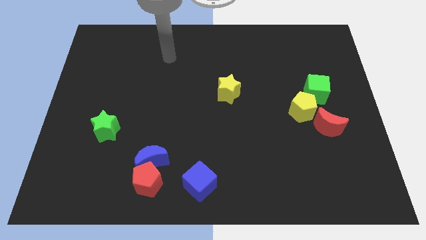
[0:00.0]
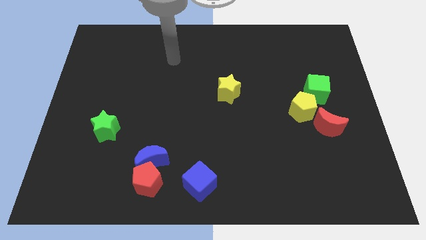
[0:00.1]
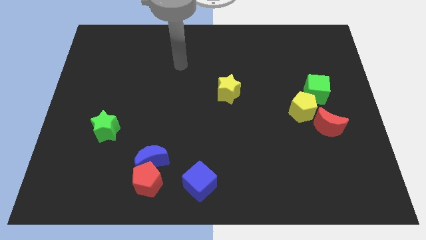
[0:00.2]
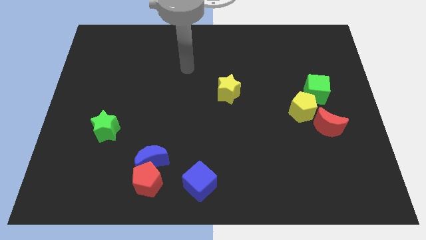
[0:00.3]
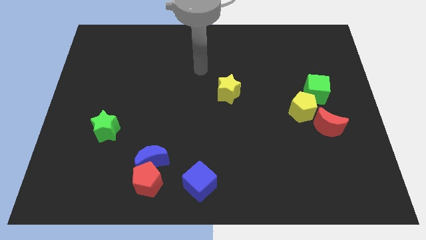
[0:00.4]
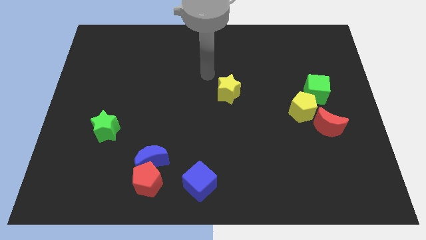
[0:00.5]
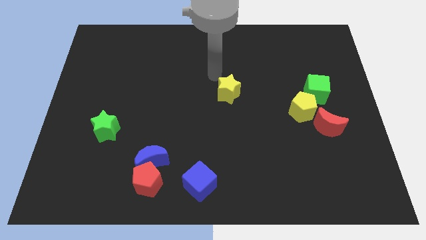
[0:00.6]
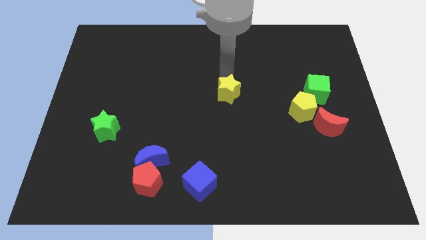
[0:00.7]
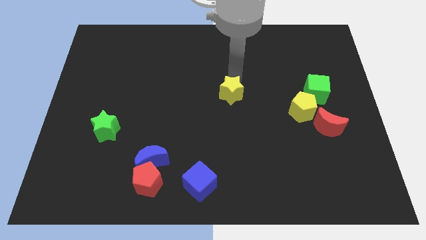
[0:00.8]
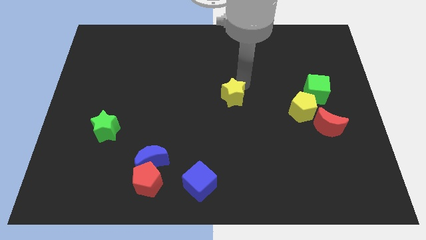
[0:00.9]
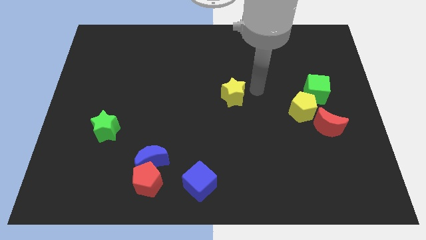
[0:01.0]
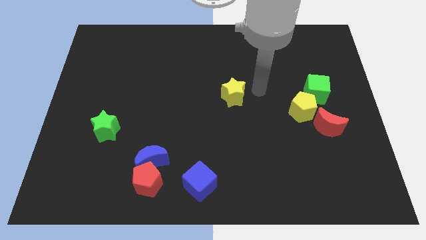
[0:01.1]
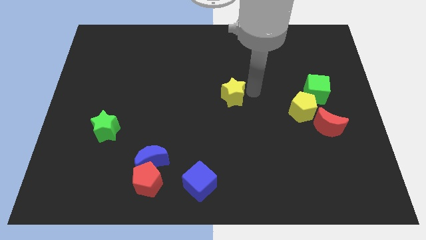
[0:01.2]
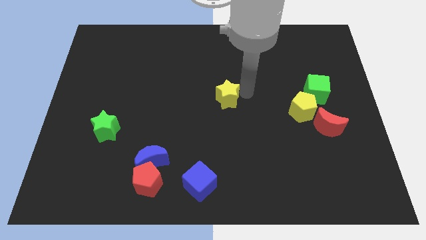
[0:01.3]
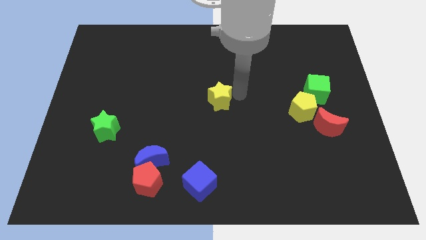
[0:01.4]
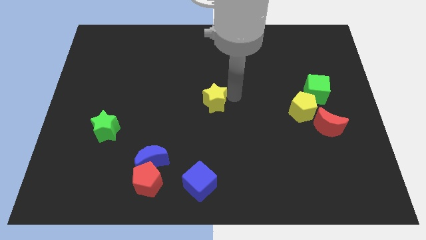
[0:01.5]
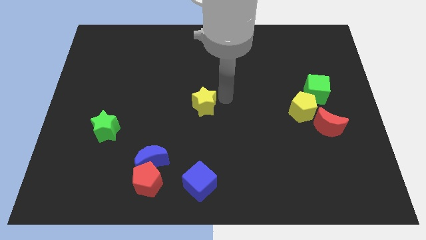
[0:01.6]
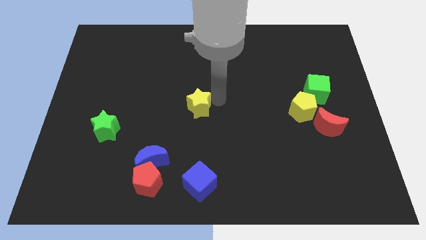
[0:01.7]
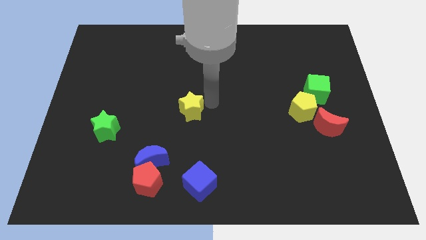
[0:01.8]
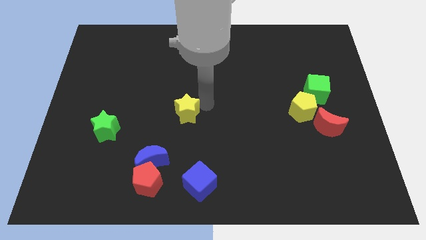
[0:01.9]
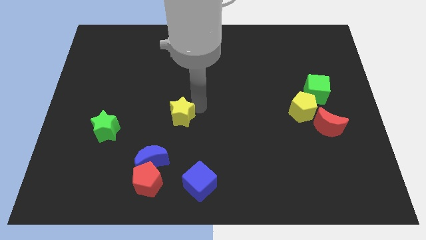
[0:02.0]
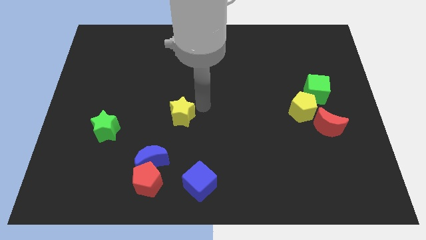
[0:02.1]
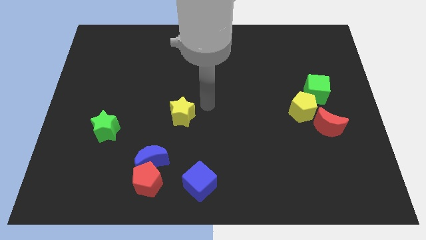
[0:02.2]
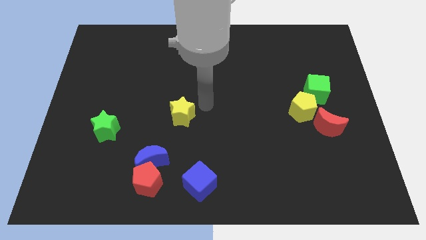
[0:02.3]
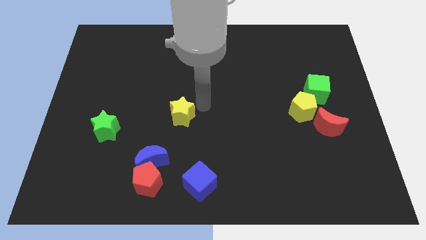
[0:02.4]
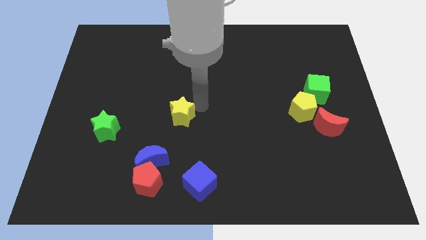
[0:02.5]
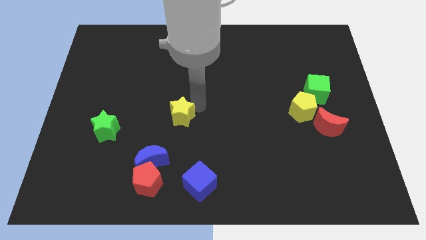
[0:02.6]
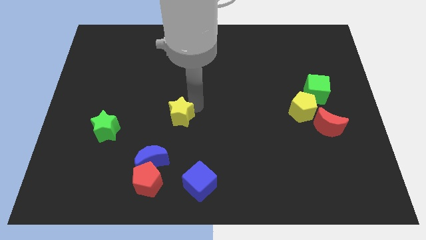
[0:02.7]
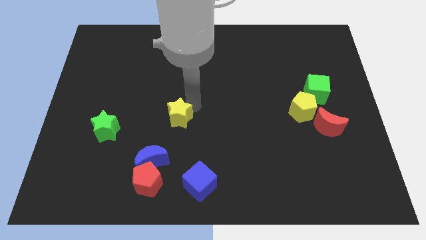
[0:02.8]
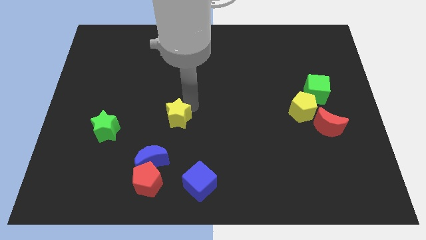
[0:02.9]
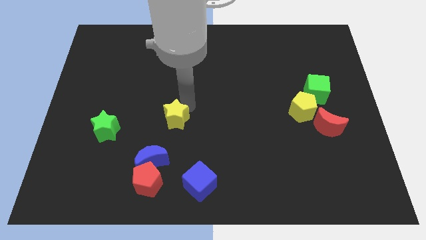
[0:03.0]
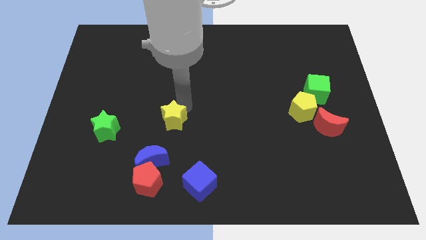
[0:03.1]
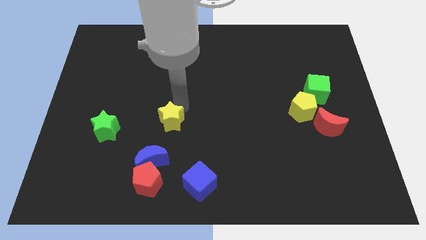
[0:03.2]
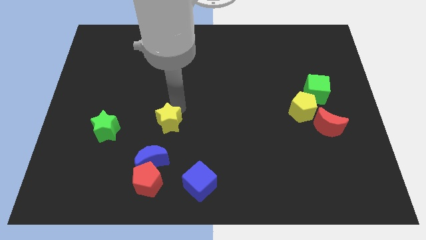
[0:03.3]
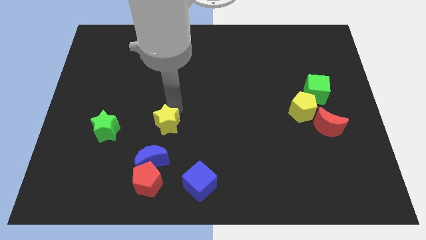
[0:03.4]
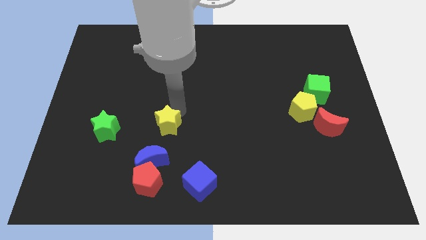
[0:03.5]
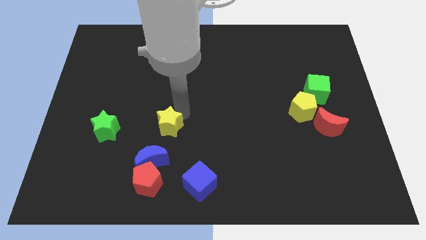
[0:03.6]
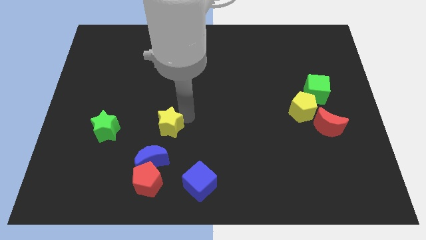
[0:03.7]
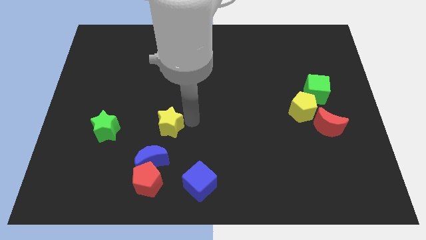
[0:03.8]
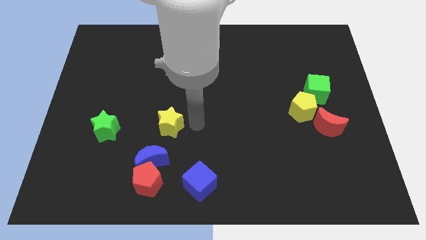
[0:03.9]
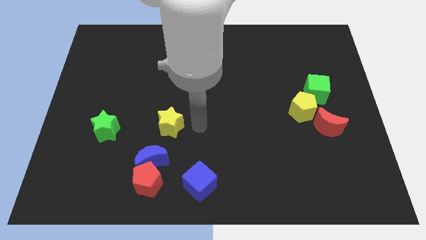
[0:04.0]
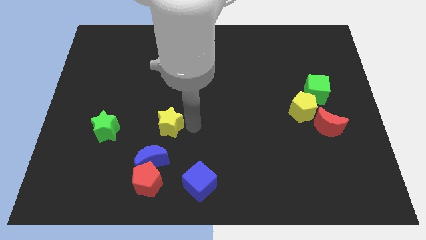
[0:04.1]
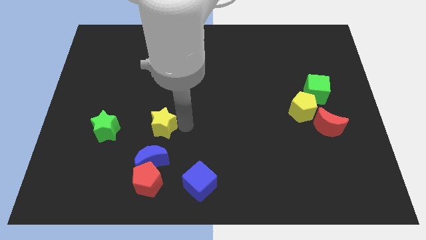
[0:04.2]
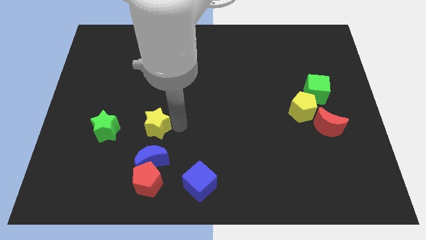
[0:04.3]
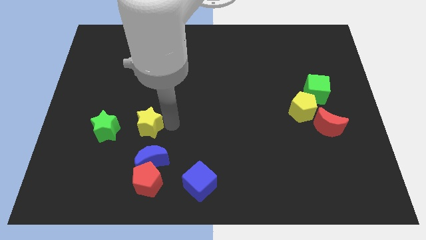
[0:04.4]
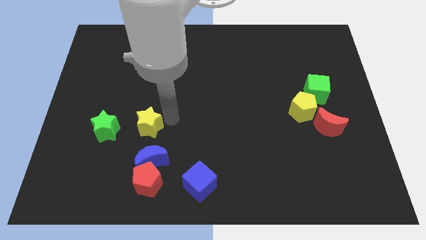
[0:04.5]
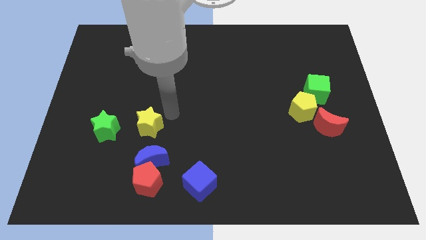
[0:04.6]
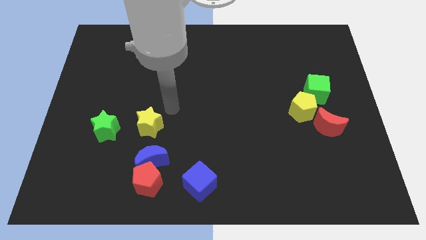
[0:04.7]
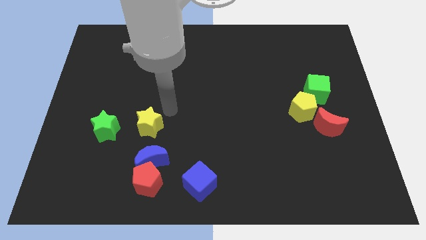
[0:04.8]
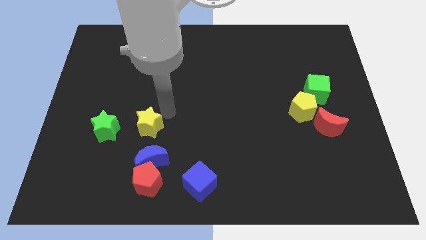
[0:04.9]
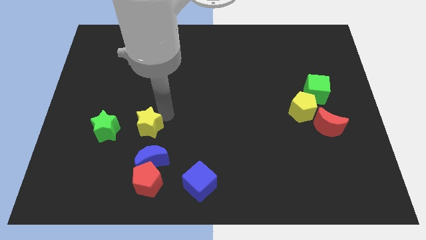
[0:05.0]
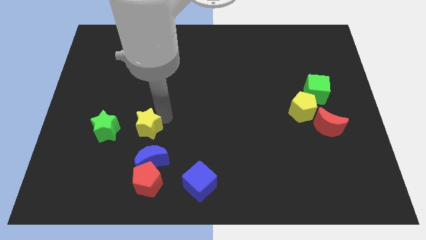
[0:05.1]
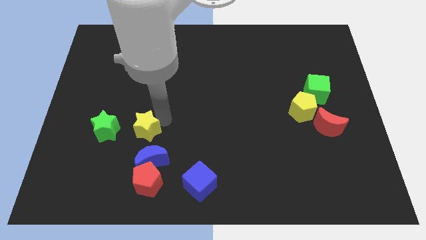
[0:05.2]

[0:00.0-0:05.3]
move the yellow star diagonally up and to the left of the blue moon

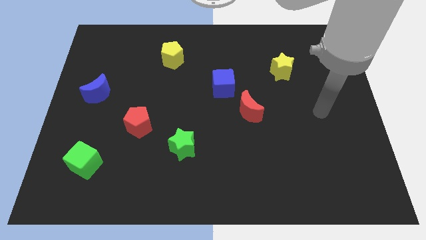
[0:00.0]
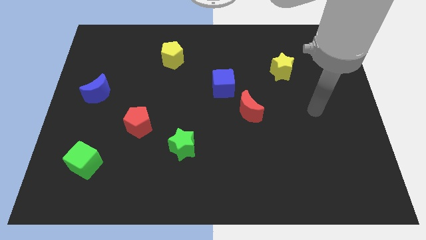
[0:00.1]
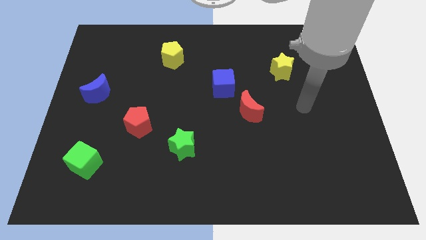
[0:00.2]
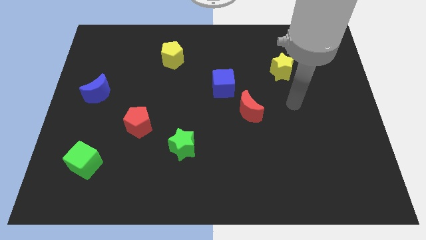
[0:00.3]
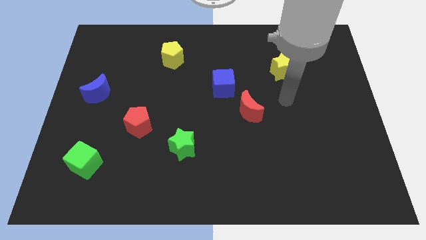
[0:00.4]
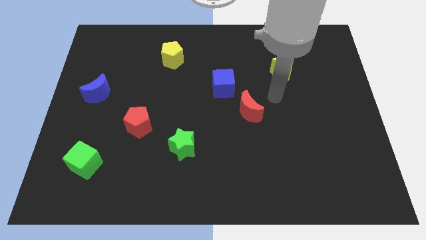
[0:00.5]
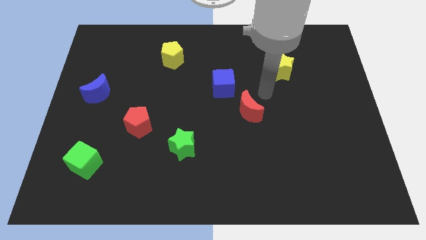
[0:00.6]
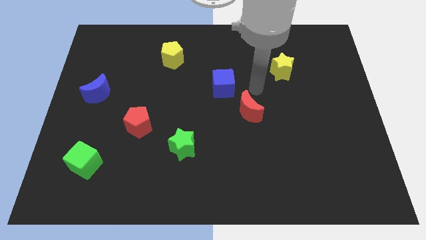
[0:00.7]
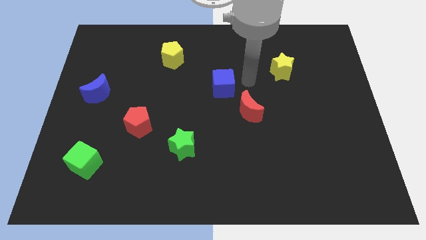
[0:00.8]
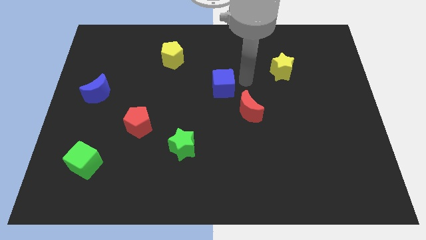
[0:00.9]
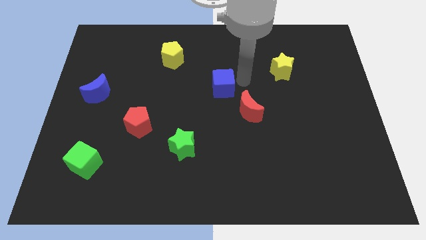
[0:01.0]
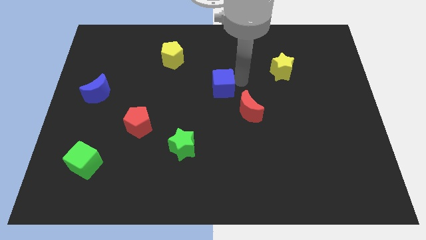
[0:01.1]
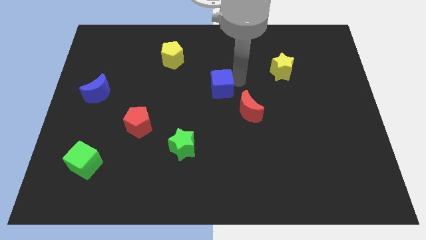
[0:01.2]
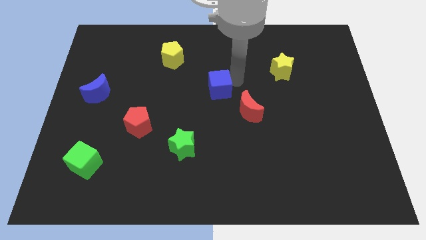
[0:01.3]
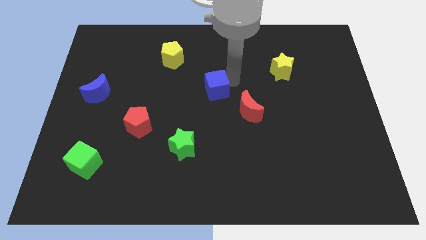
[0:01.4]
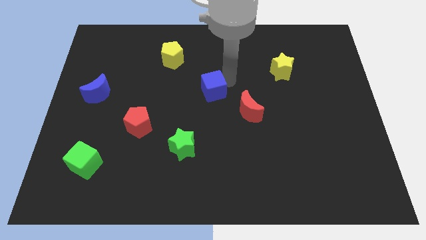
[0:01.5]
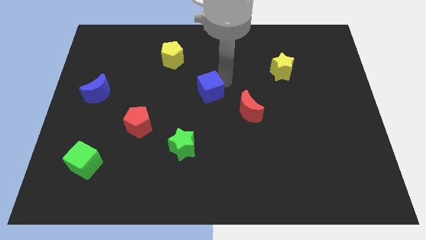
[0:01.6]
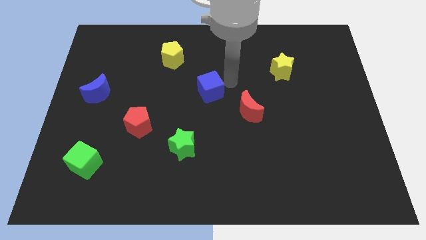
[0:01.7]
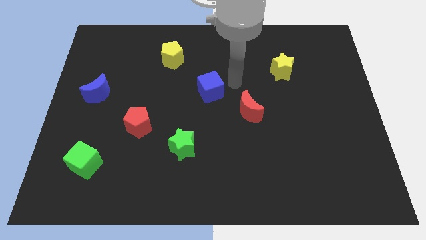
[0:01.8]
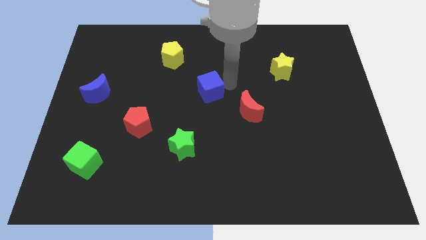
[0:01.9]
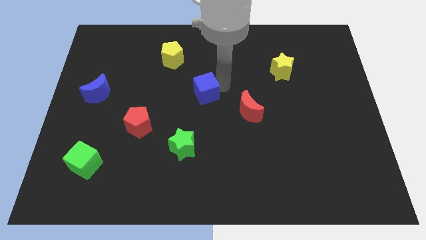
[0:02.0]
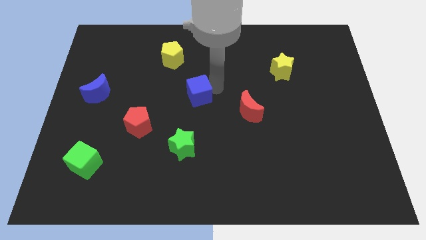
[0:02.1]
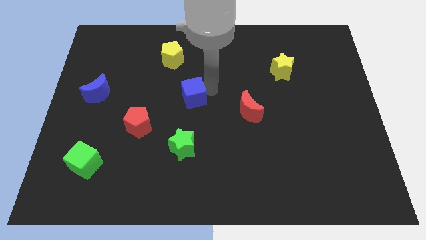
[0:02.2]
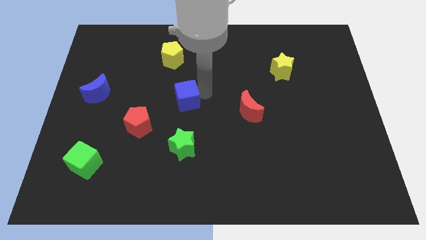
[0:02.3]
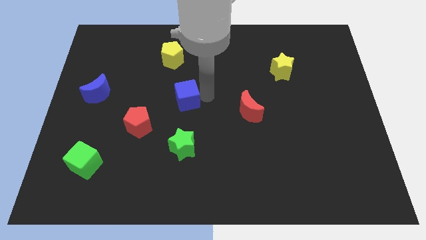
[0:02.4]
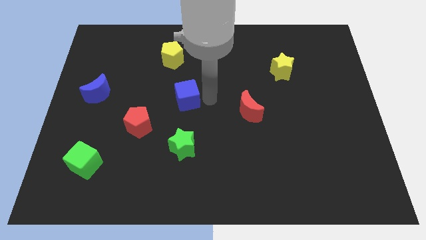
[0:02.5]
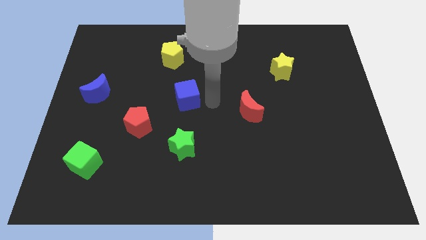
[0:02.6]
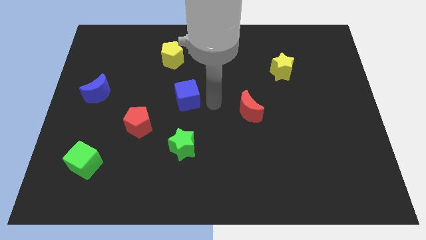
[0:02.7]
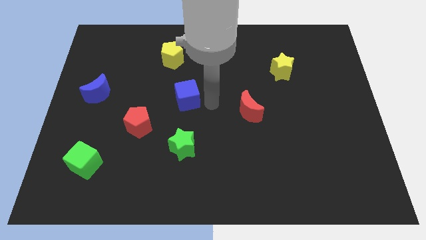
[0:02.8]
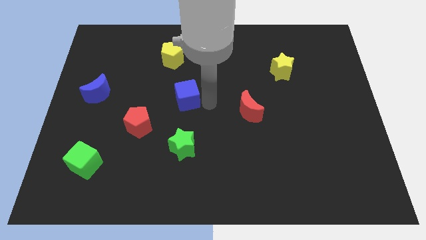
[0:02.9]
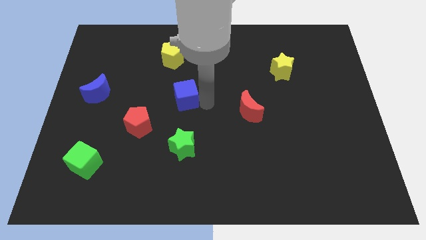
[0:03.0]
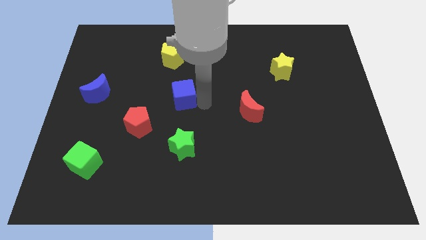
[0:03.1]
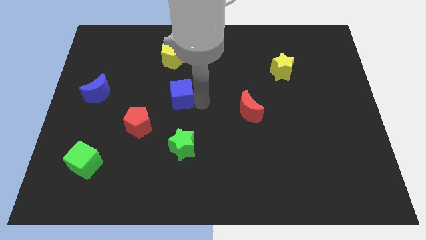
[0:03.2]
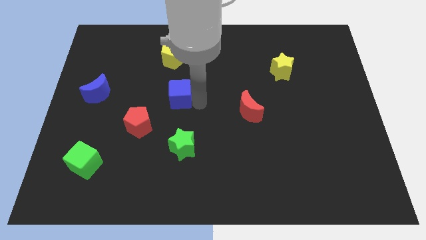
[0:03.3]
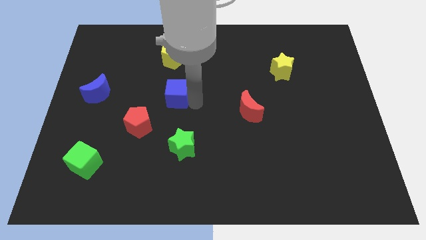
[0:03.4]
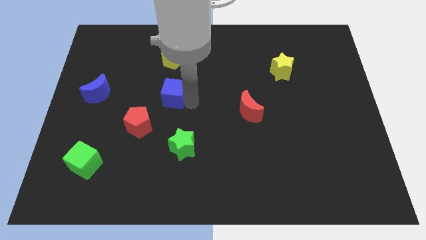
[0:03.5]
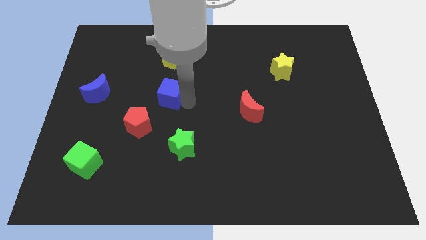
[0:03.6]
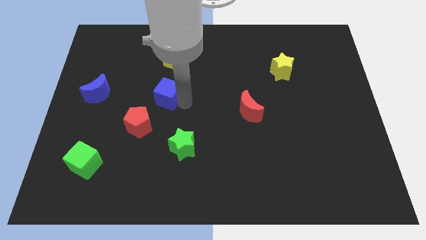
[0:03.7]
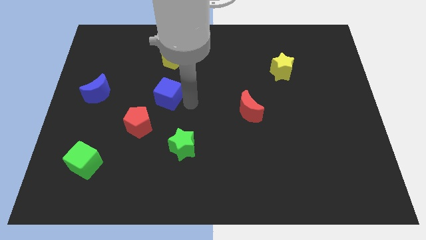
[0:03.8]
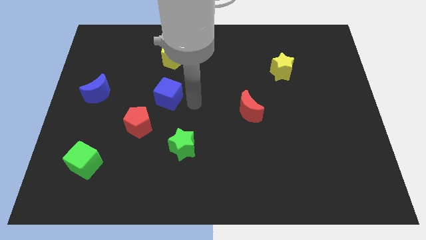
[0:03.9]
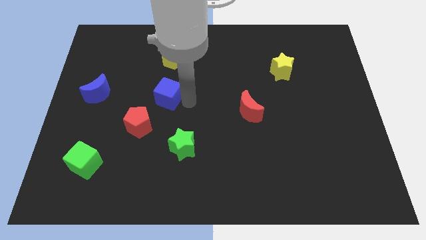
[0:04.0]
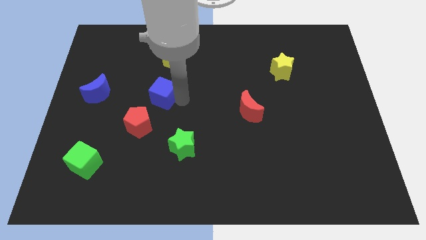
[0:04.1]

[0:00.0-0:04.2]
push the blue cube above the red pentagon
